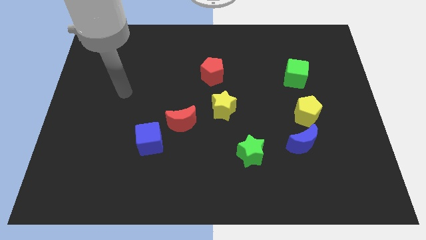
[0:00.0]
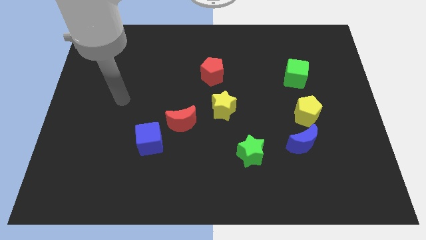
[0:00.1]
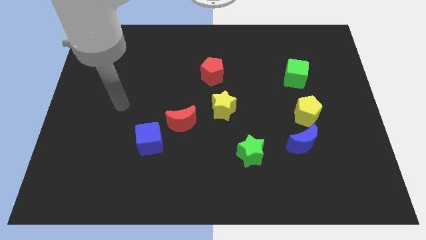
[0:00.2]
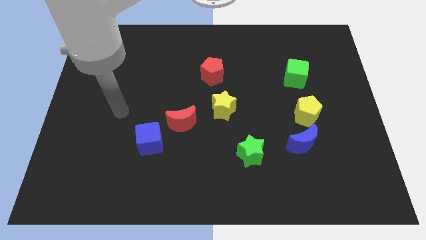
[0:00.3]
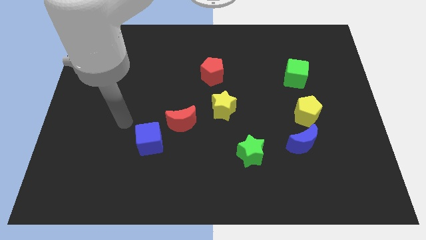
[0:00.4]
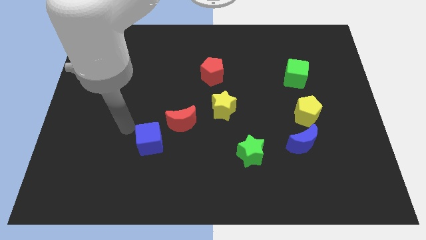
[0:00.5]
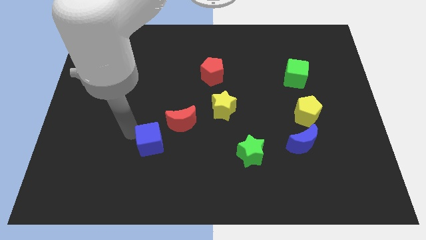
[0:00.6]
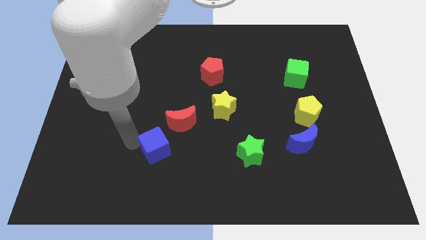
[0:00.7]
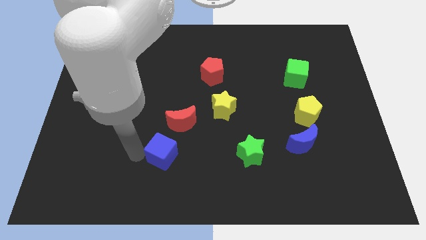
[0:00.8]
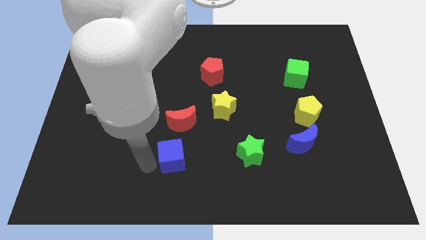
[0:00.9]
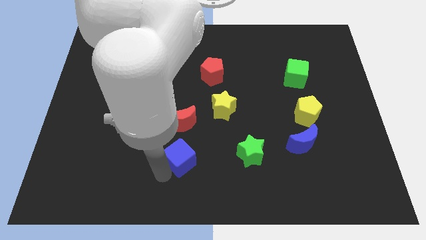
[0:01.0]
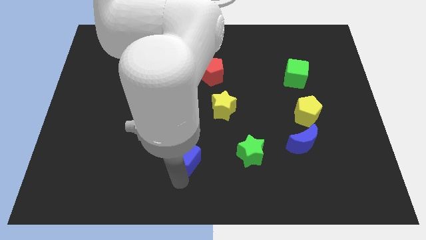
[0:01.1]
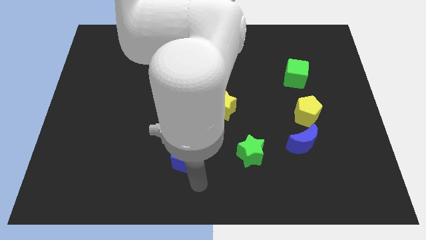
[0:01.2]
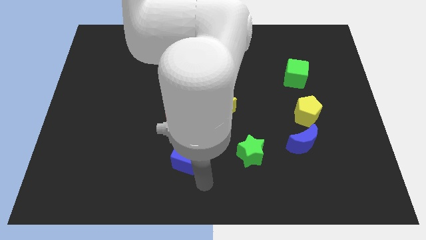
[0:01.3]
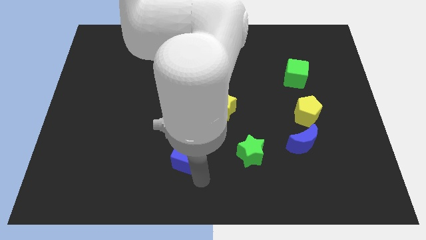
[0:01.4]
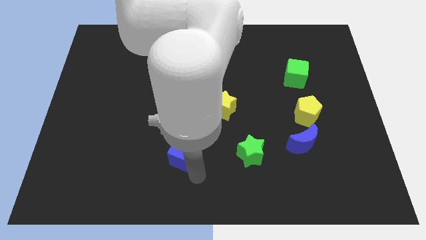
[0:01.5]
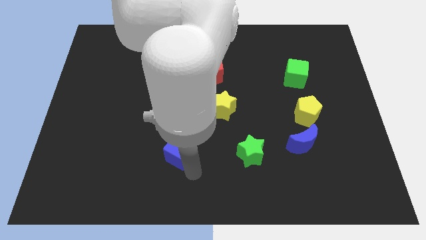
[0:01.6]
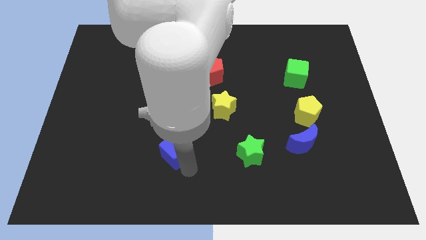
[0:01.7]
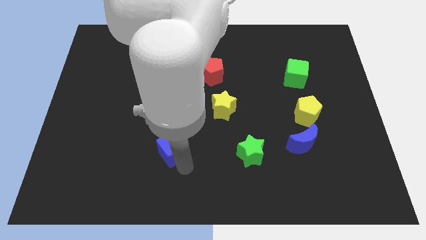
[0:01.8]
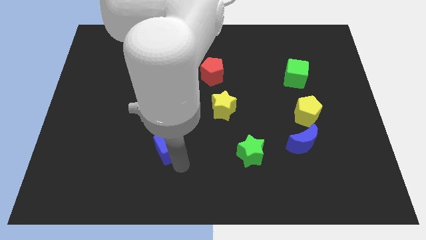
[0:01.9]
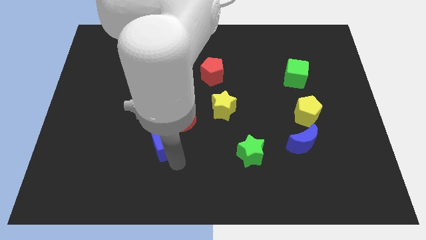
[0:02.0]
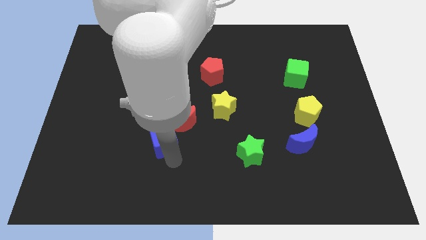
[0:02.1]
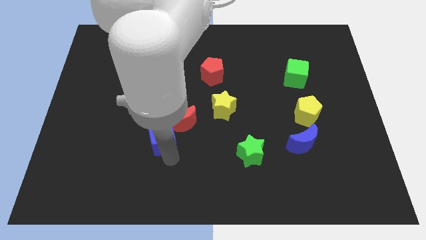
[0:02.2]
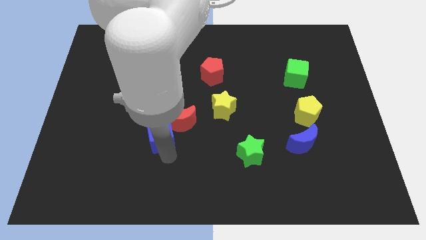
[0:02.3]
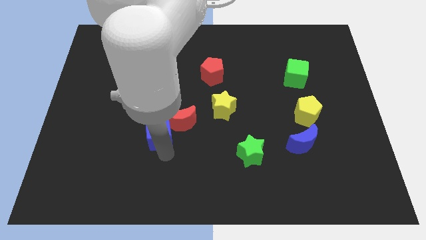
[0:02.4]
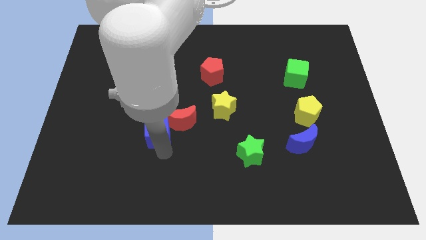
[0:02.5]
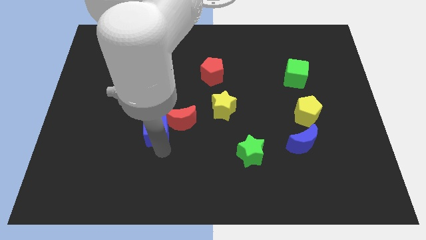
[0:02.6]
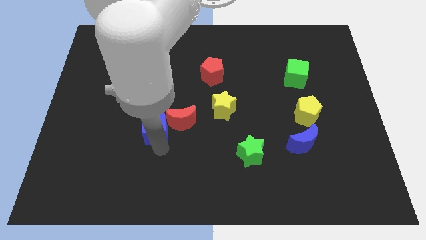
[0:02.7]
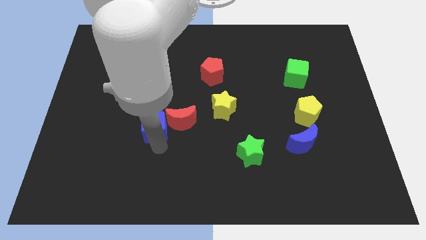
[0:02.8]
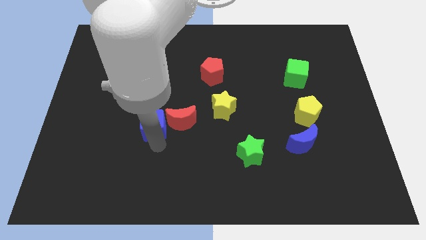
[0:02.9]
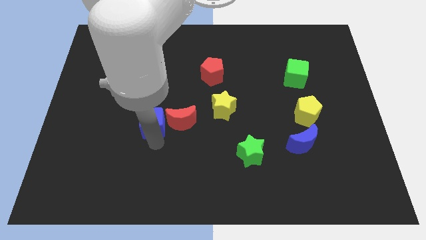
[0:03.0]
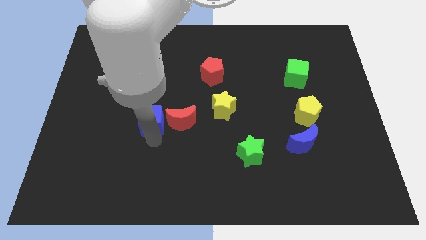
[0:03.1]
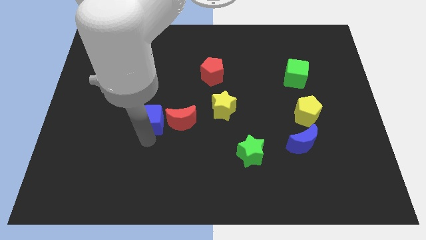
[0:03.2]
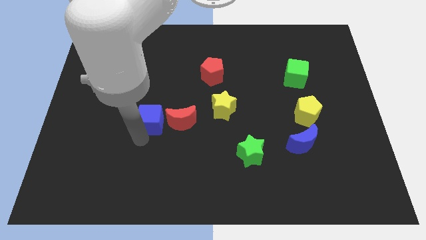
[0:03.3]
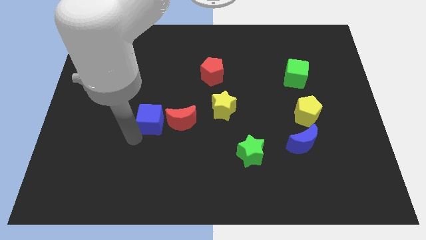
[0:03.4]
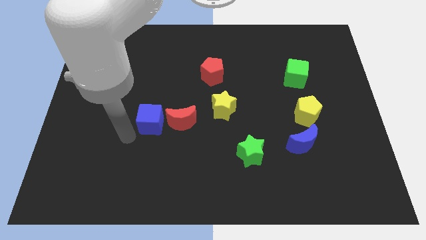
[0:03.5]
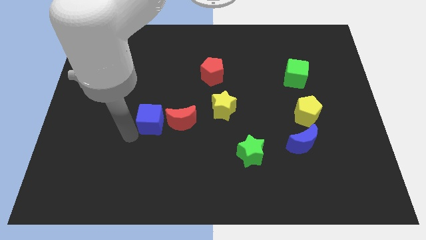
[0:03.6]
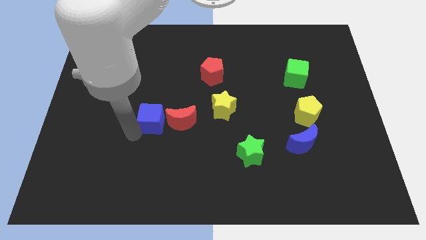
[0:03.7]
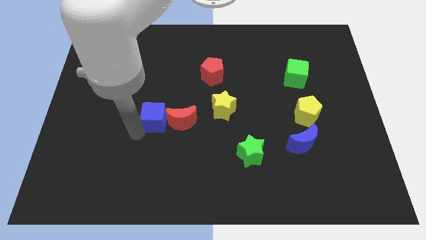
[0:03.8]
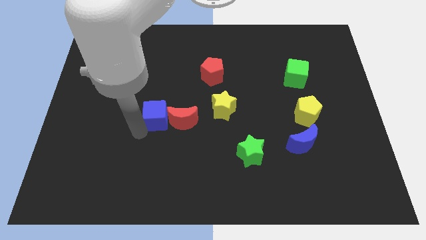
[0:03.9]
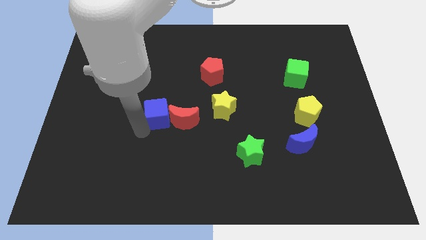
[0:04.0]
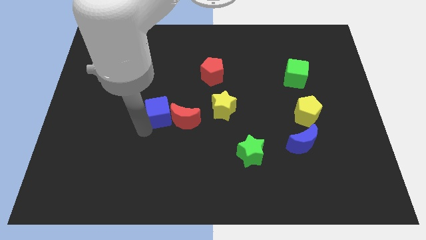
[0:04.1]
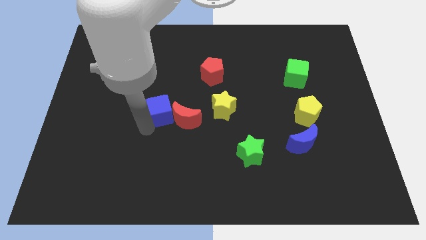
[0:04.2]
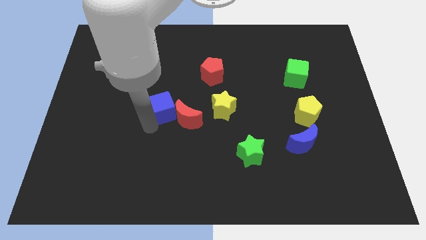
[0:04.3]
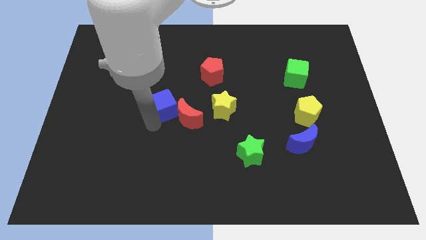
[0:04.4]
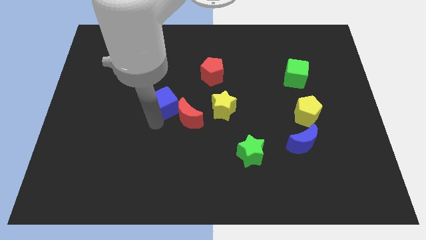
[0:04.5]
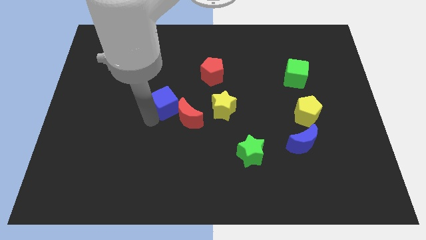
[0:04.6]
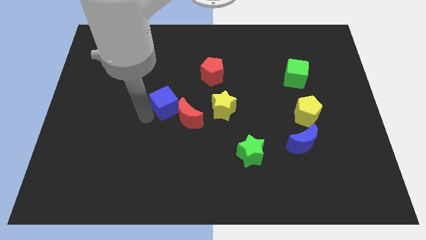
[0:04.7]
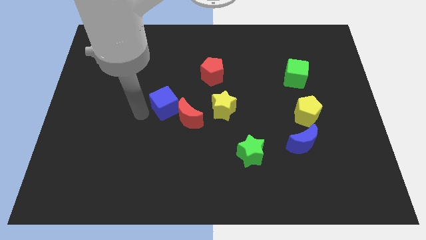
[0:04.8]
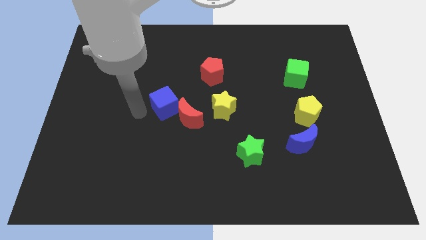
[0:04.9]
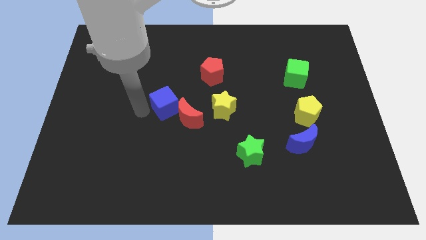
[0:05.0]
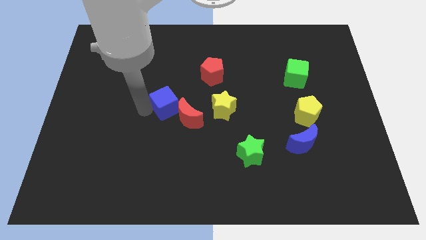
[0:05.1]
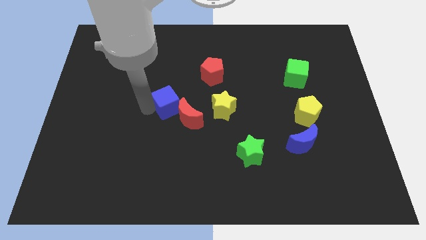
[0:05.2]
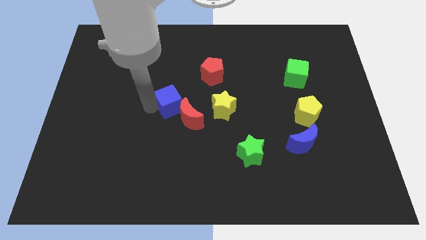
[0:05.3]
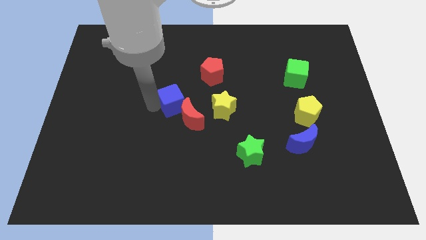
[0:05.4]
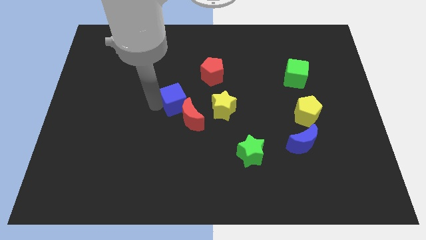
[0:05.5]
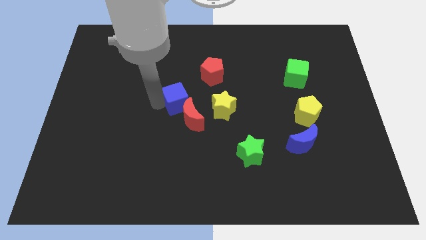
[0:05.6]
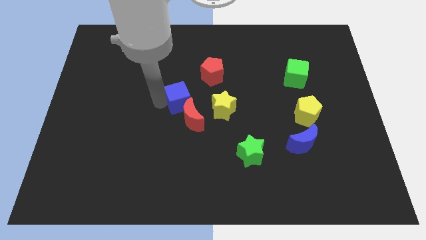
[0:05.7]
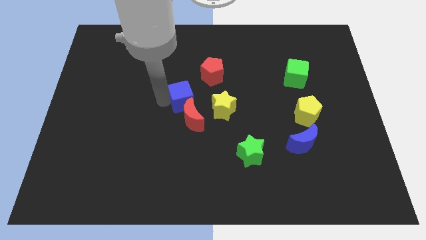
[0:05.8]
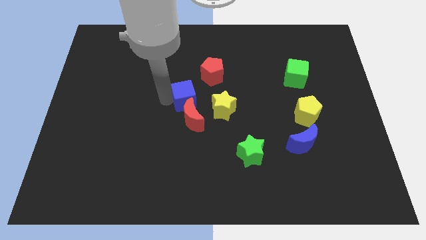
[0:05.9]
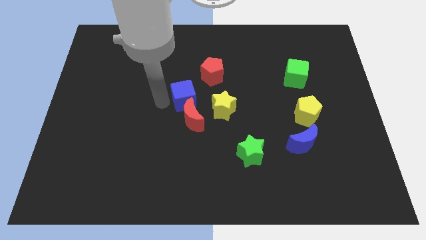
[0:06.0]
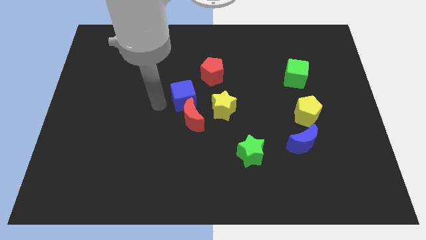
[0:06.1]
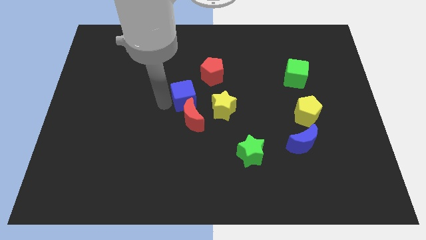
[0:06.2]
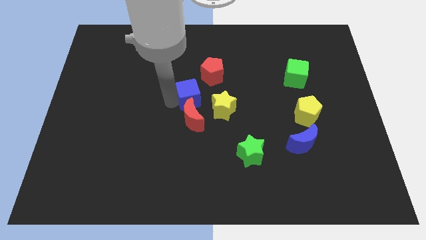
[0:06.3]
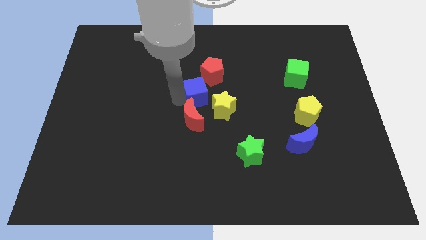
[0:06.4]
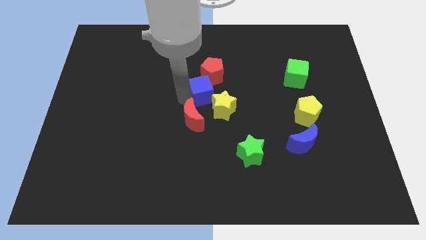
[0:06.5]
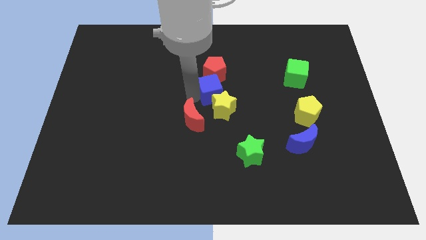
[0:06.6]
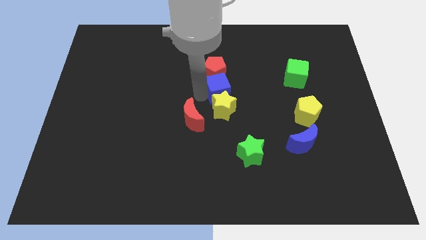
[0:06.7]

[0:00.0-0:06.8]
move the blue cube diagonally up and to the right

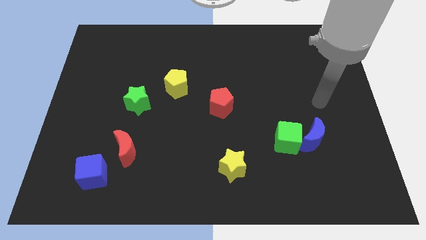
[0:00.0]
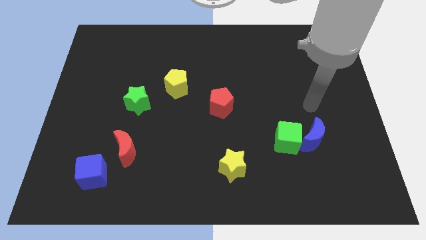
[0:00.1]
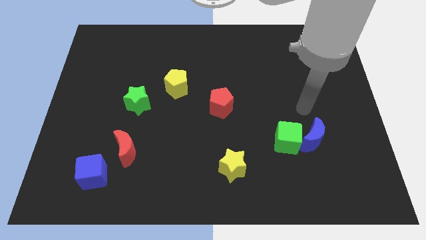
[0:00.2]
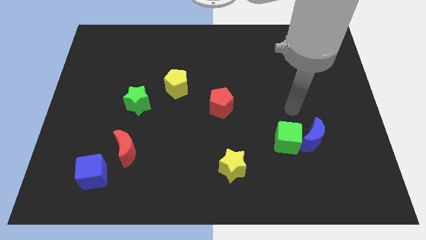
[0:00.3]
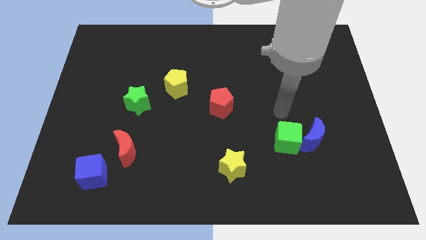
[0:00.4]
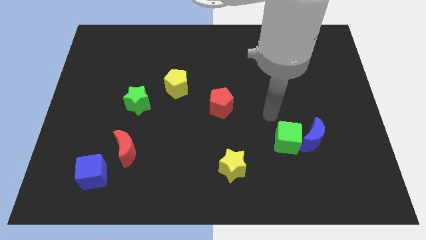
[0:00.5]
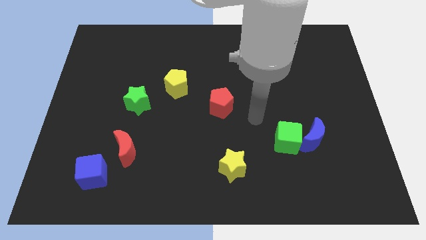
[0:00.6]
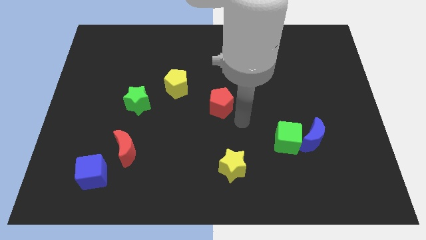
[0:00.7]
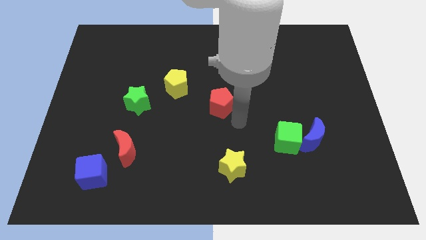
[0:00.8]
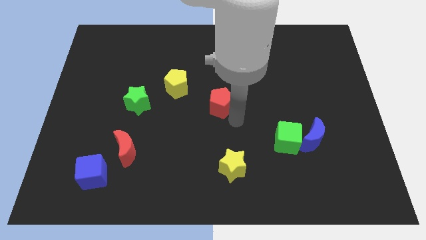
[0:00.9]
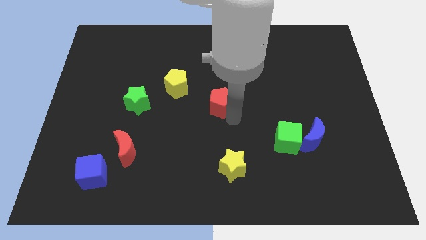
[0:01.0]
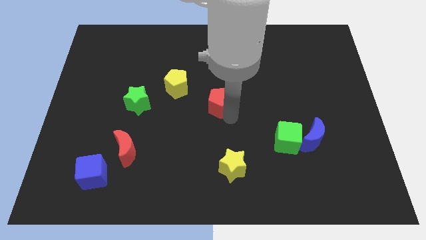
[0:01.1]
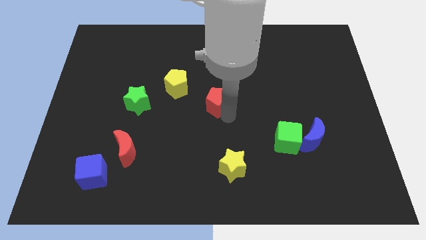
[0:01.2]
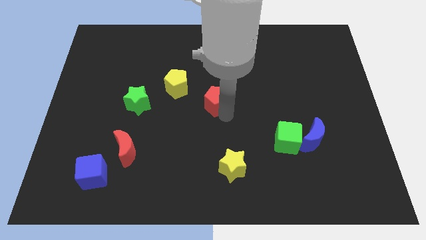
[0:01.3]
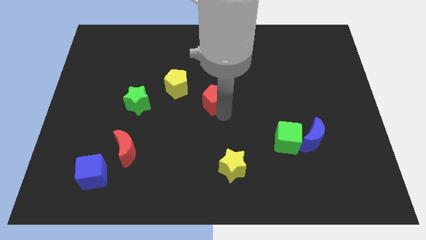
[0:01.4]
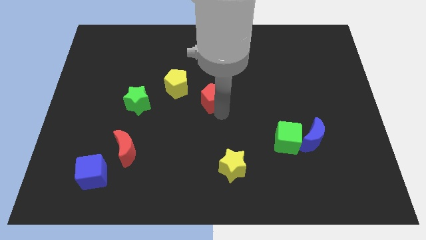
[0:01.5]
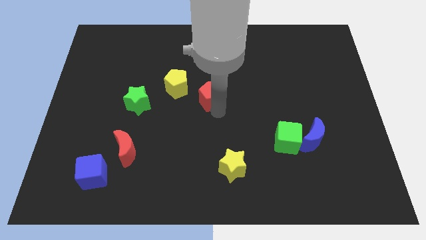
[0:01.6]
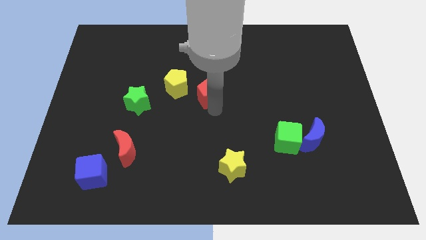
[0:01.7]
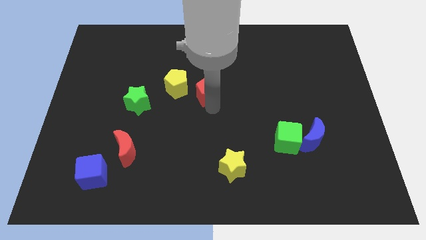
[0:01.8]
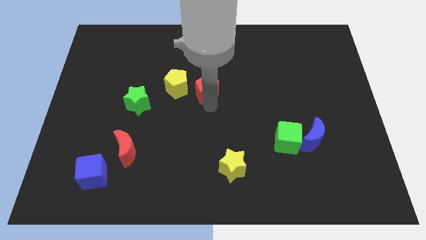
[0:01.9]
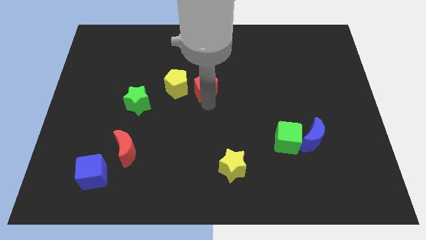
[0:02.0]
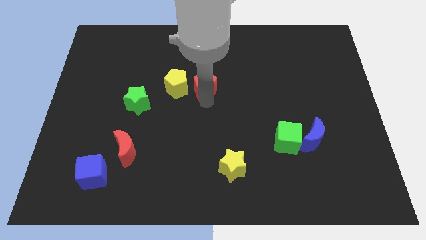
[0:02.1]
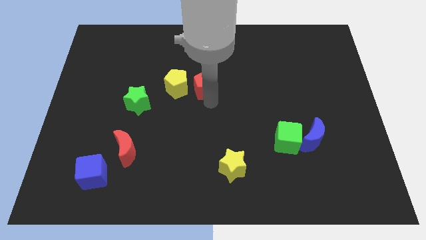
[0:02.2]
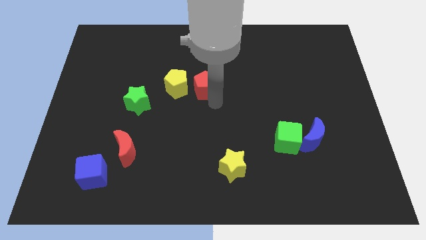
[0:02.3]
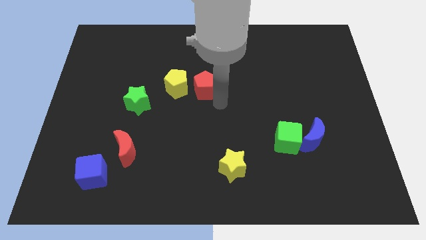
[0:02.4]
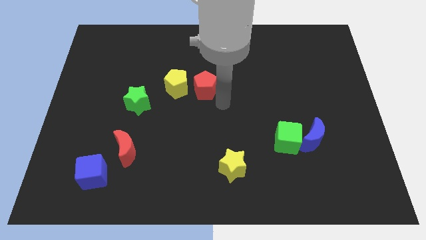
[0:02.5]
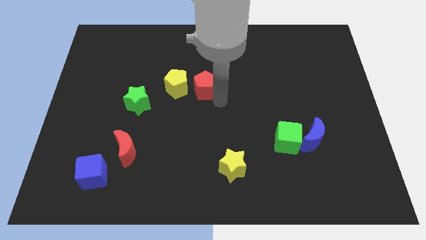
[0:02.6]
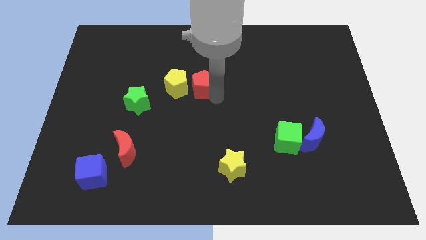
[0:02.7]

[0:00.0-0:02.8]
push the red pentagon upwards and then left slightly
